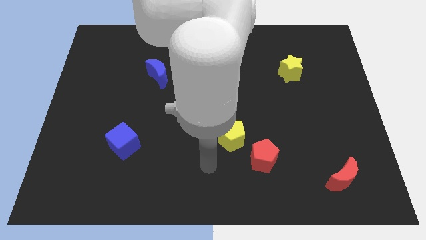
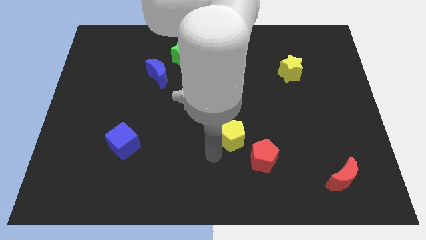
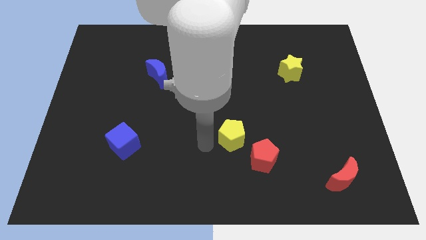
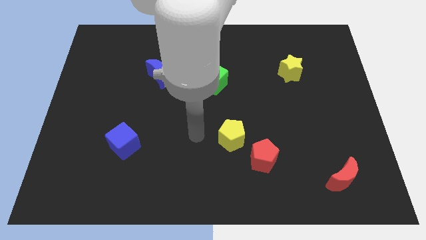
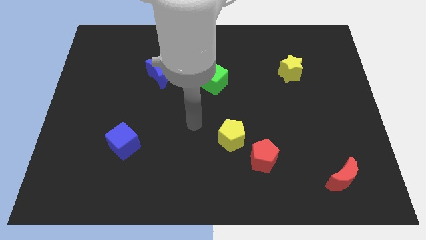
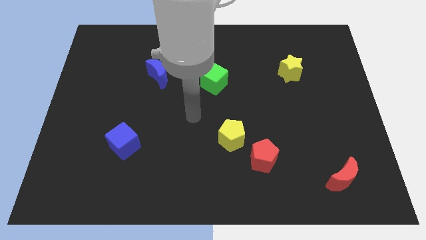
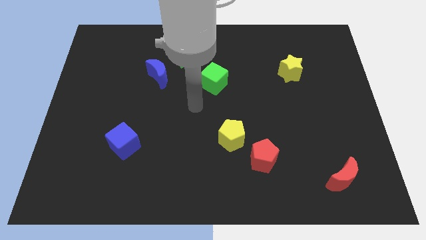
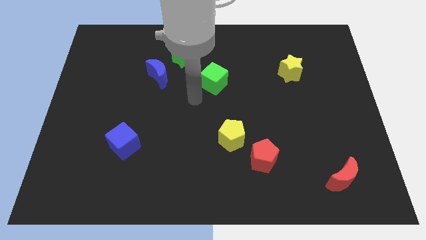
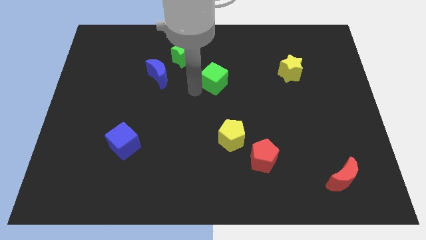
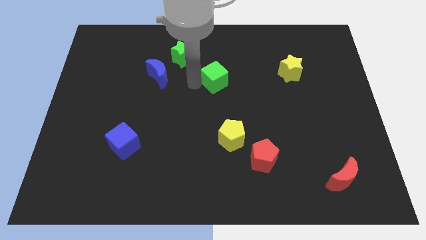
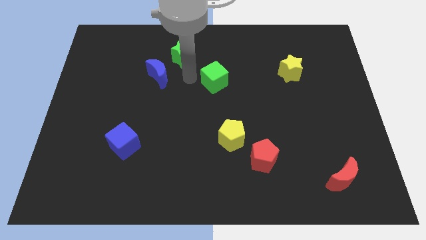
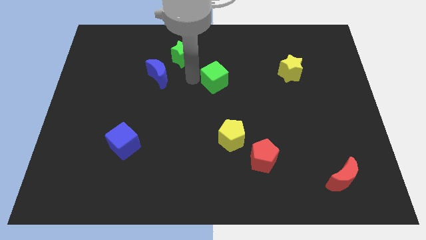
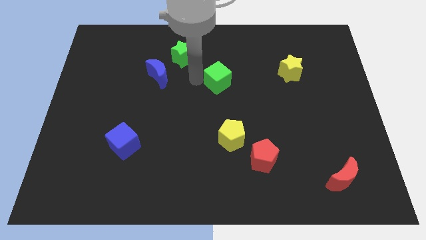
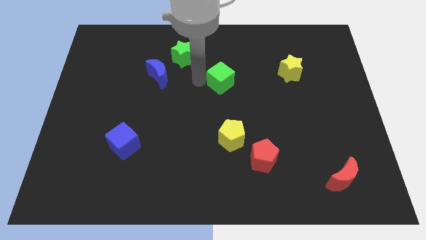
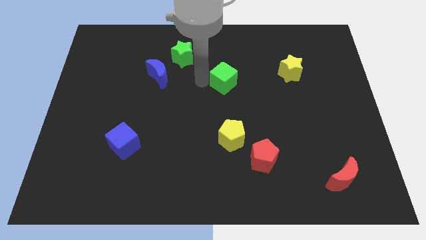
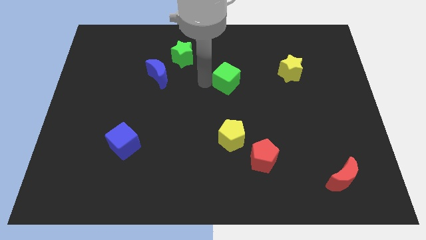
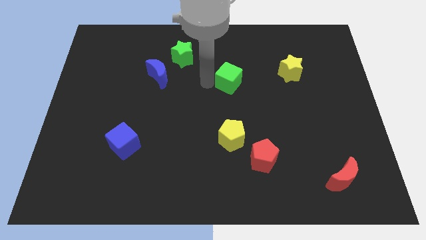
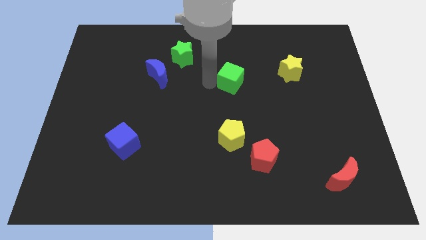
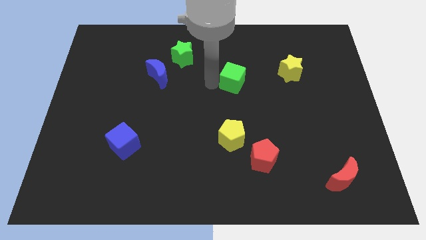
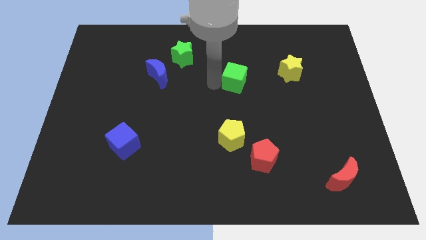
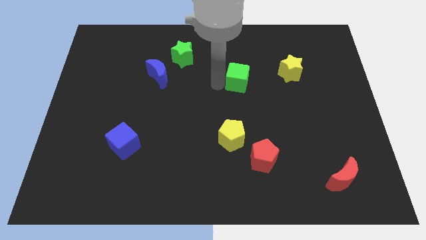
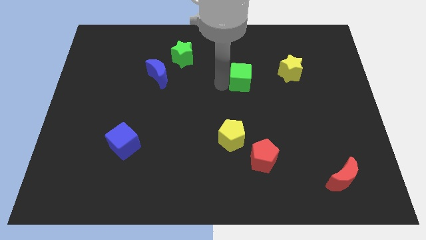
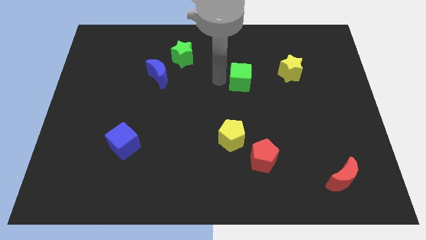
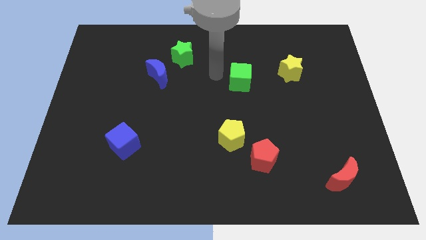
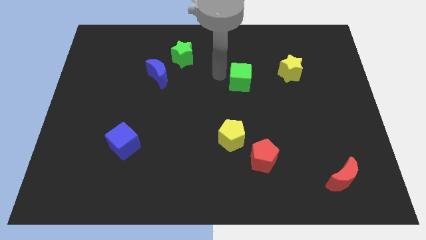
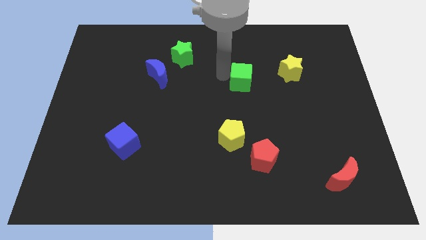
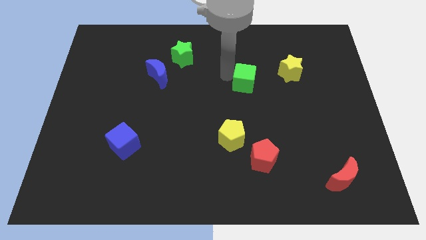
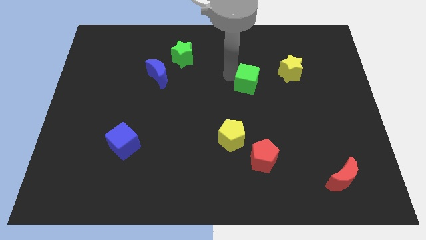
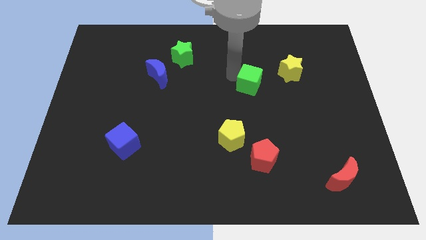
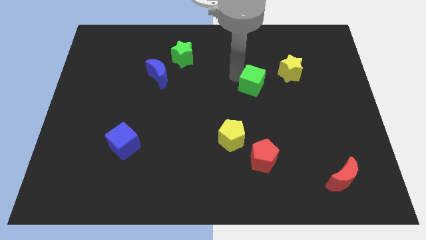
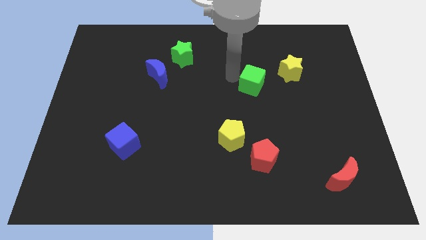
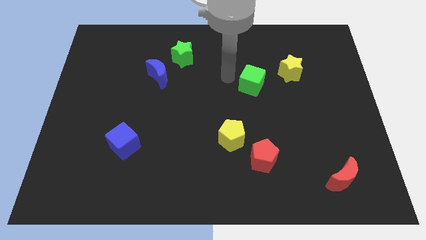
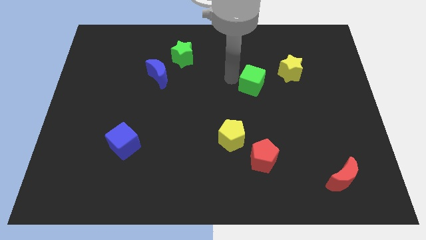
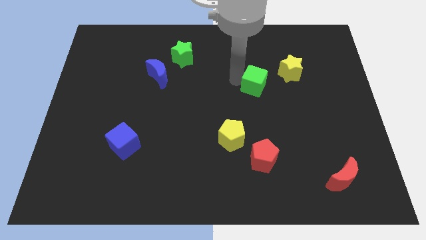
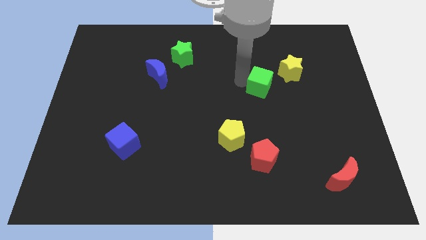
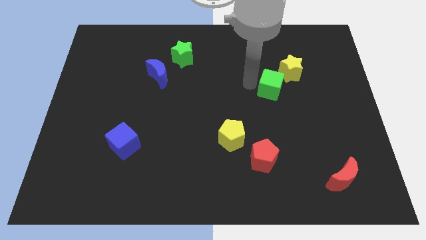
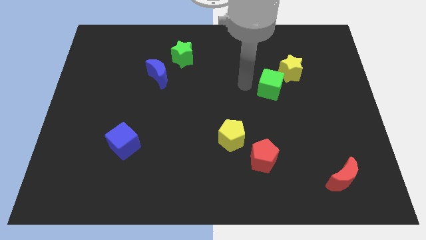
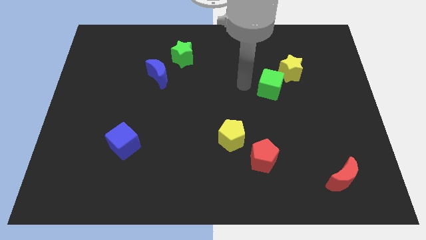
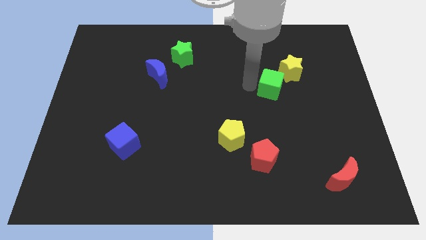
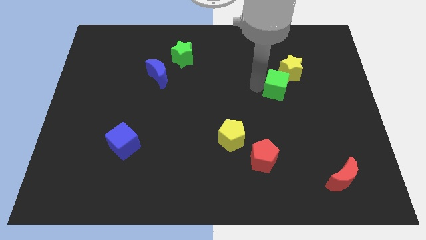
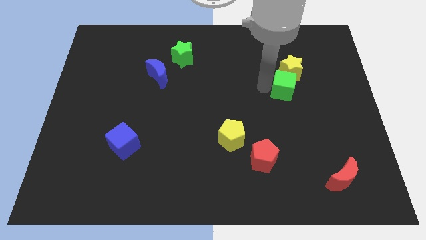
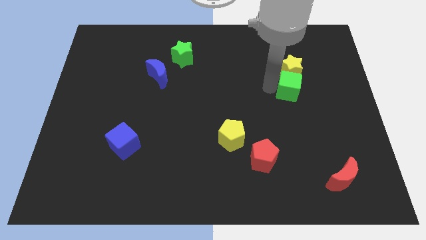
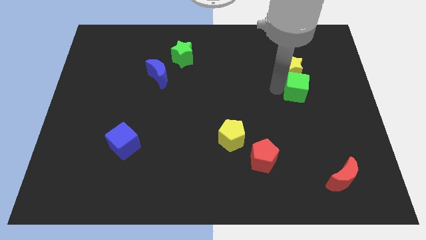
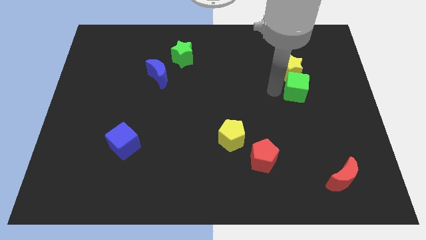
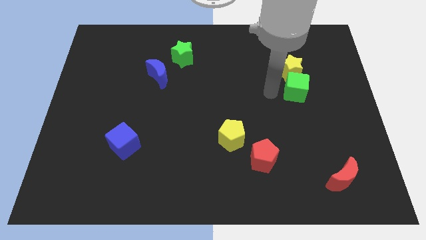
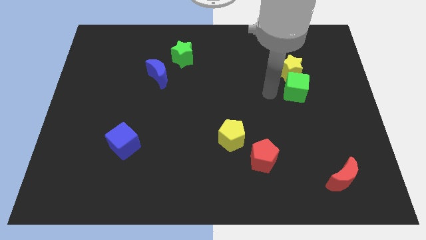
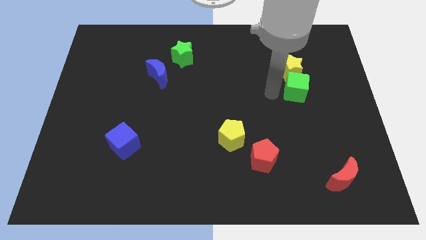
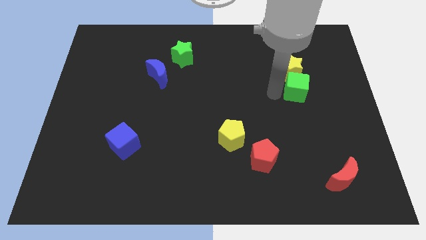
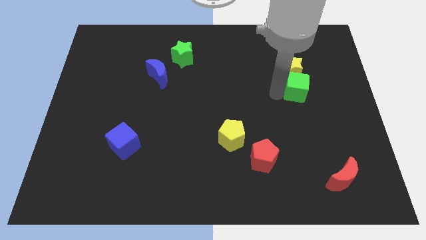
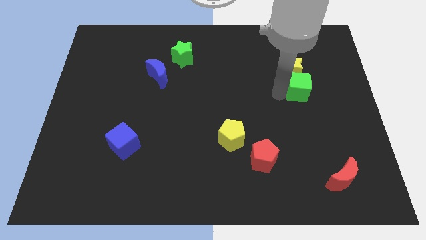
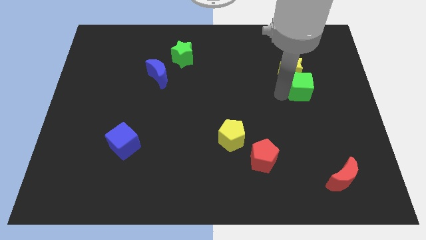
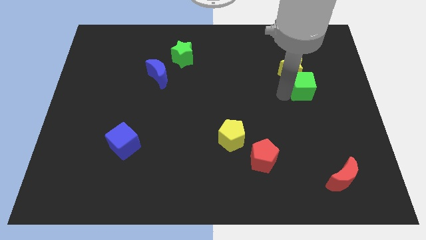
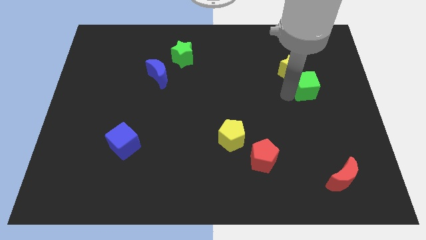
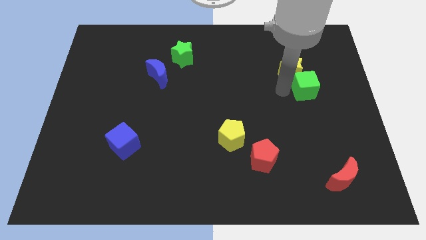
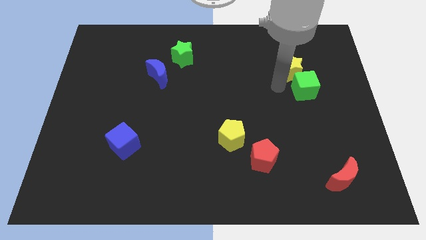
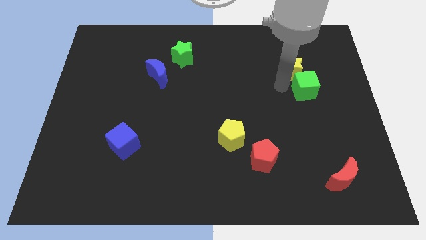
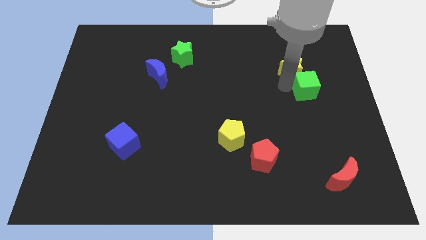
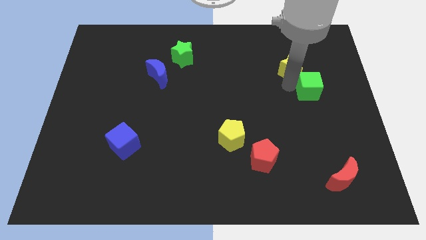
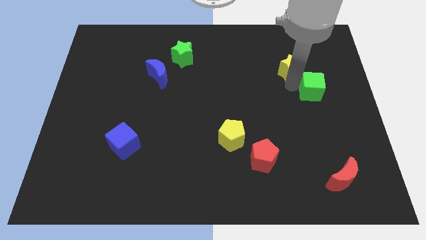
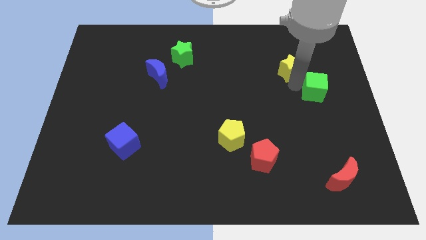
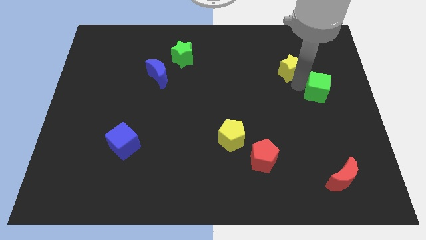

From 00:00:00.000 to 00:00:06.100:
put the green cube to the right side of the board

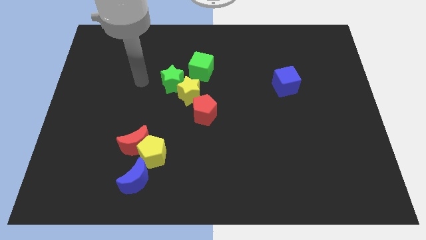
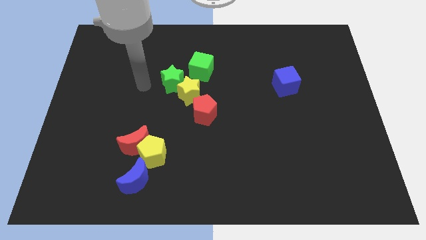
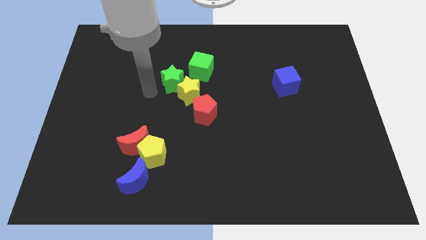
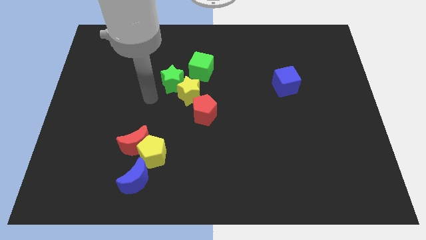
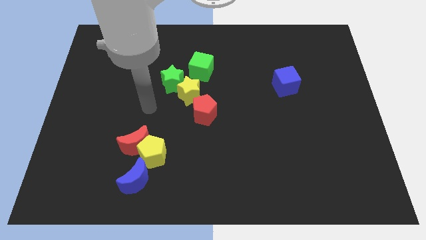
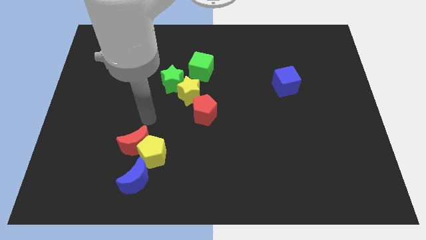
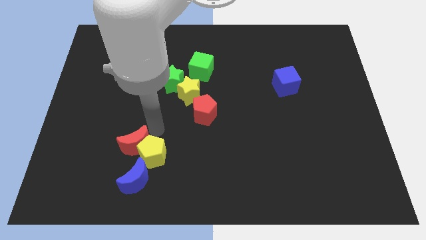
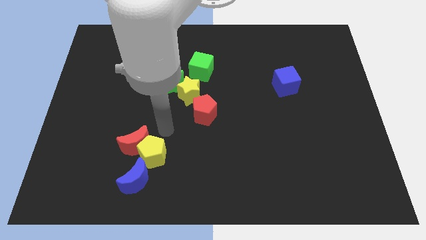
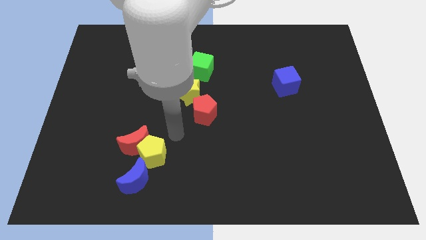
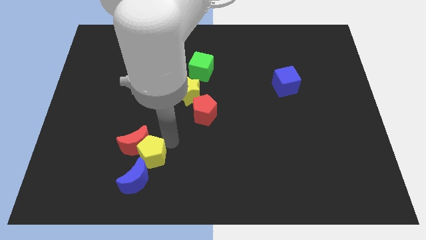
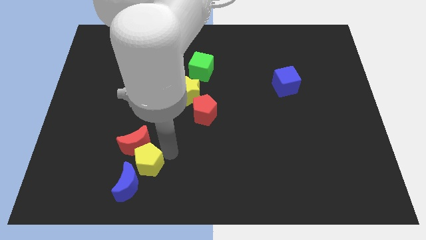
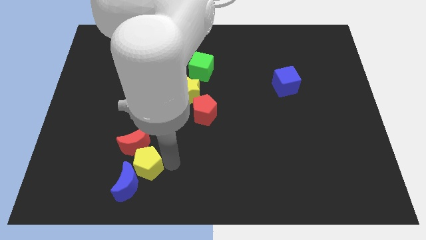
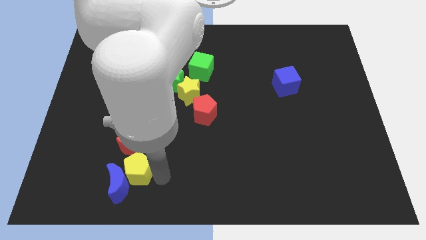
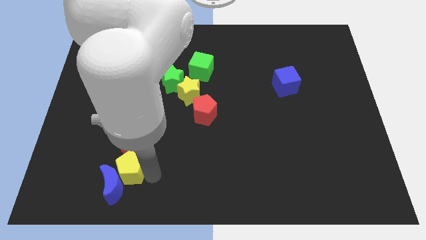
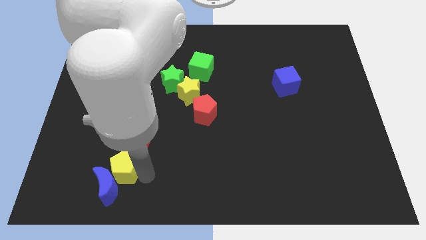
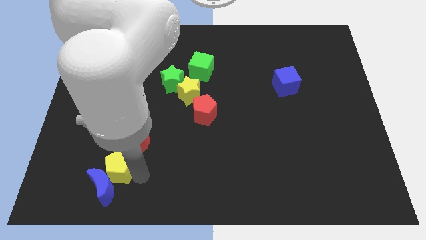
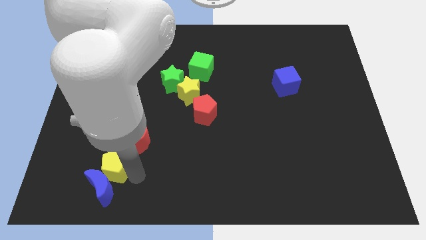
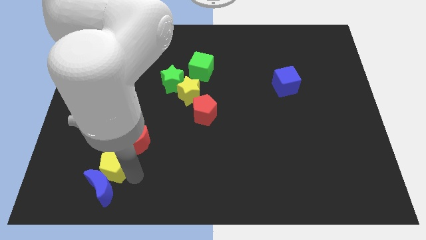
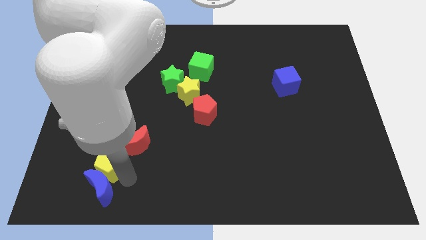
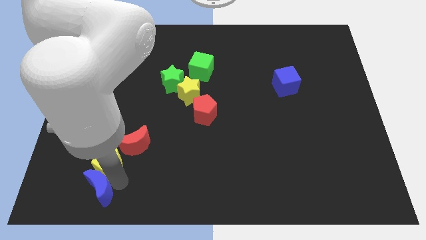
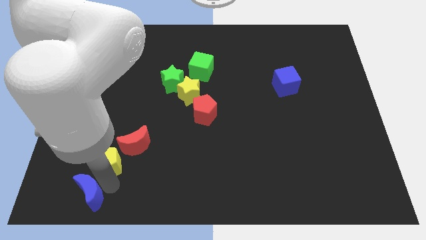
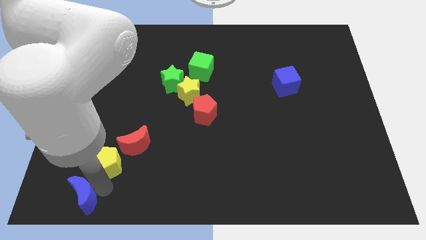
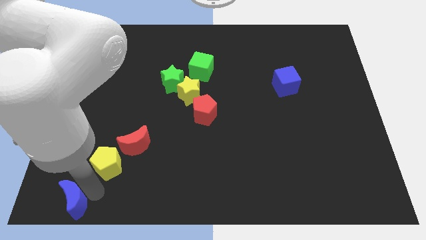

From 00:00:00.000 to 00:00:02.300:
slide the blue moon to the bottom left corner
